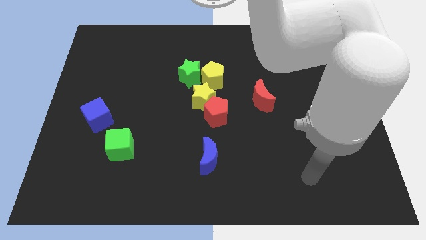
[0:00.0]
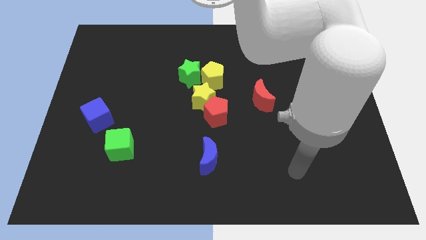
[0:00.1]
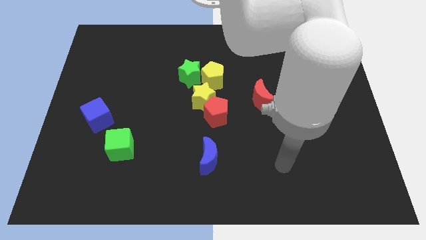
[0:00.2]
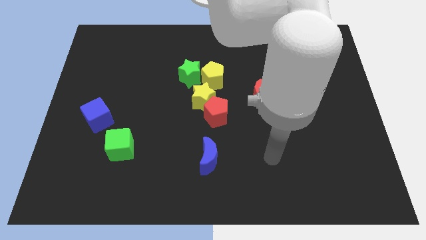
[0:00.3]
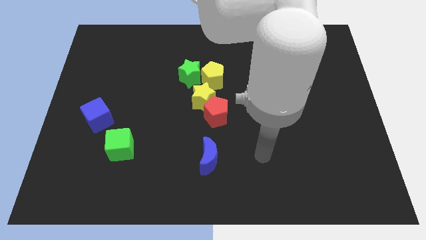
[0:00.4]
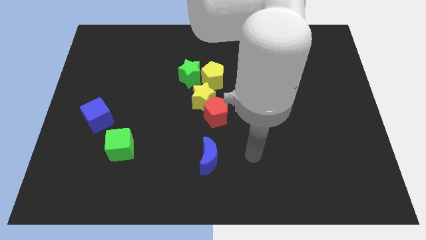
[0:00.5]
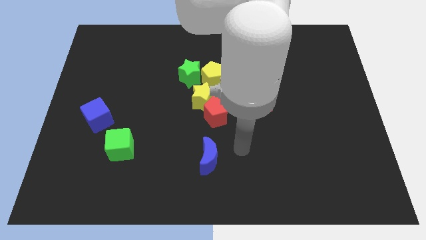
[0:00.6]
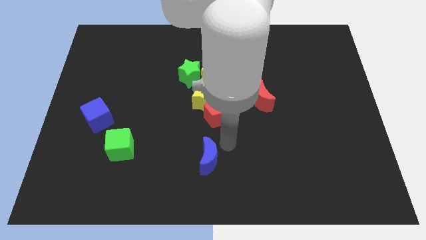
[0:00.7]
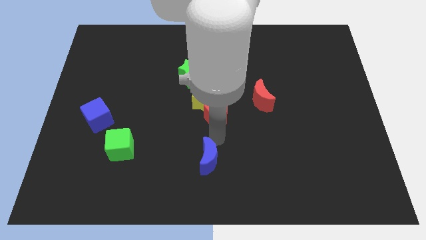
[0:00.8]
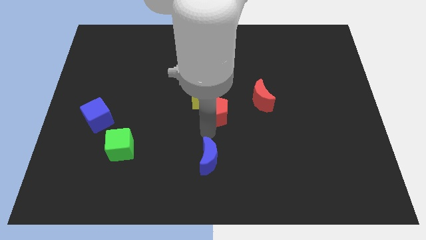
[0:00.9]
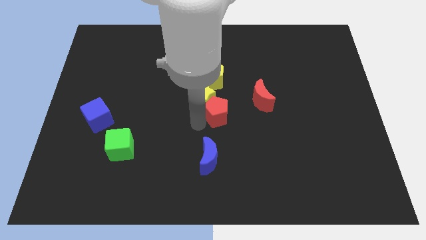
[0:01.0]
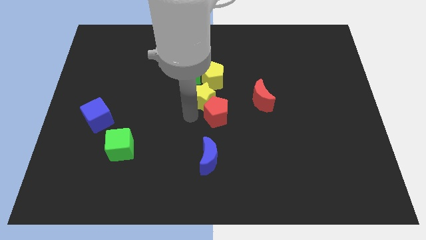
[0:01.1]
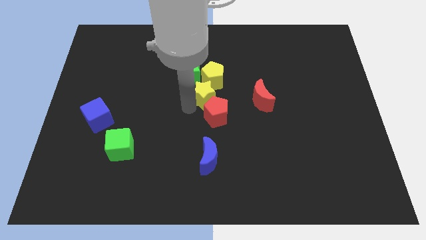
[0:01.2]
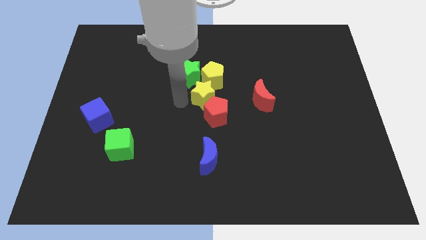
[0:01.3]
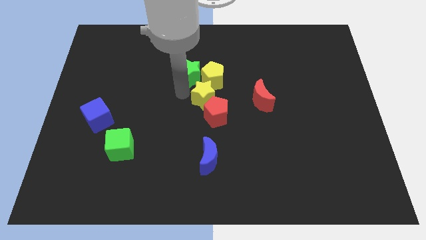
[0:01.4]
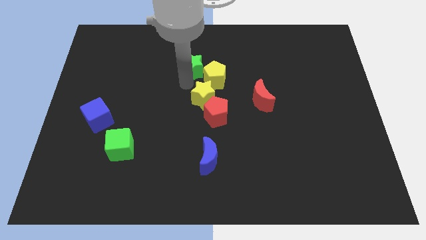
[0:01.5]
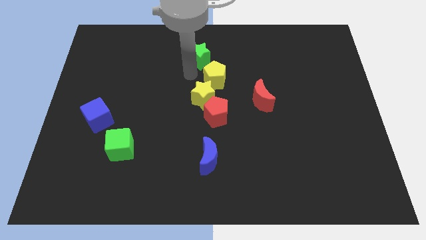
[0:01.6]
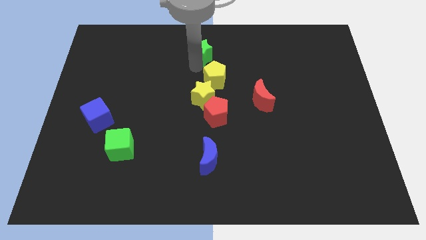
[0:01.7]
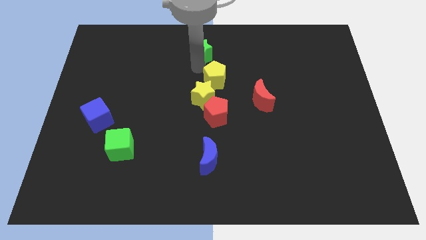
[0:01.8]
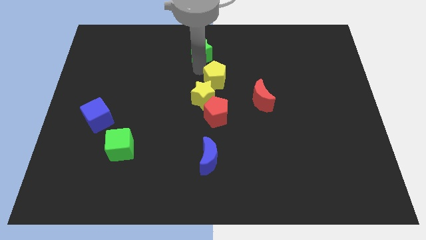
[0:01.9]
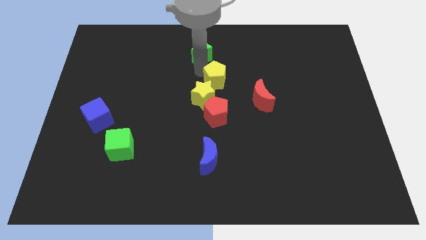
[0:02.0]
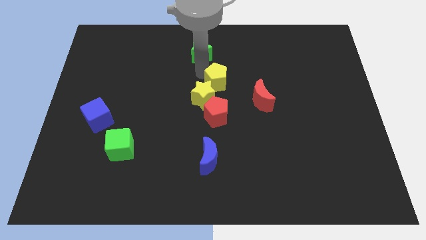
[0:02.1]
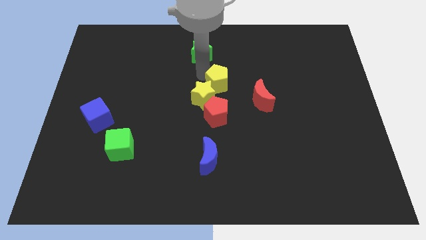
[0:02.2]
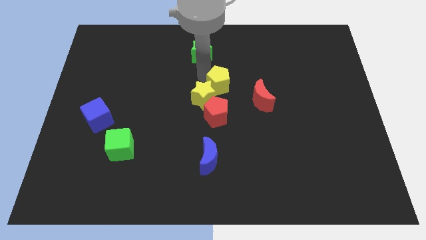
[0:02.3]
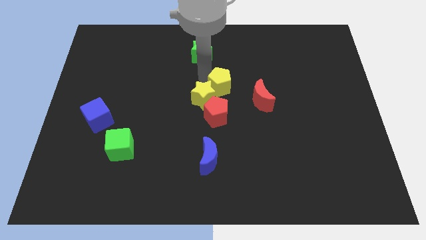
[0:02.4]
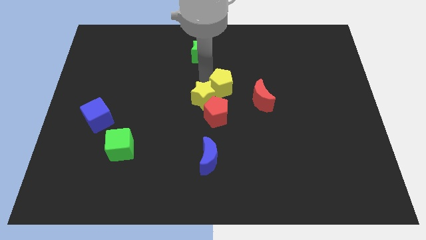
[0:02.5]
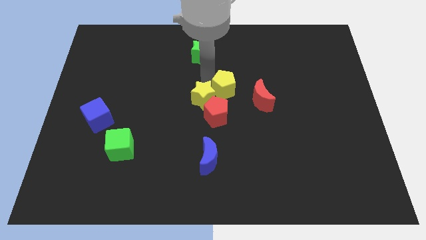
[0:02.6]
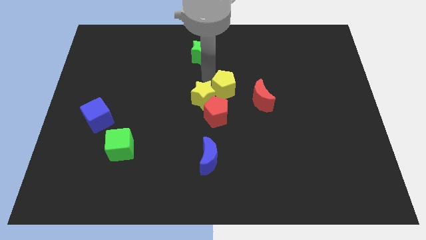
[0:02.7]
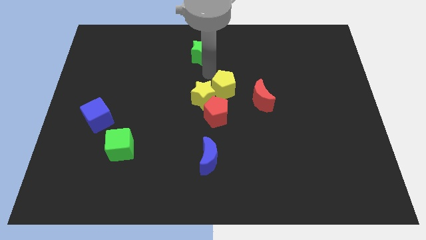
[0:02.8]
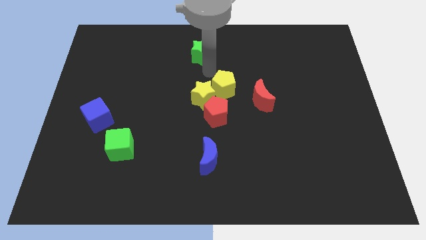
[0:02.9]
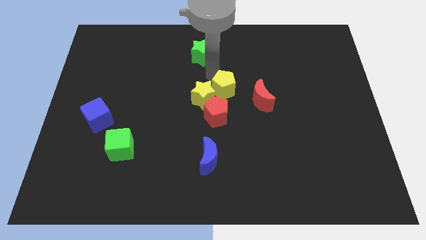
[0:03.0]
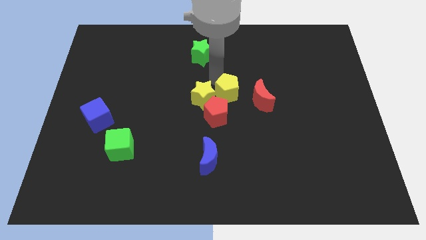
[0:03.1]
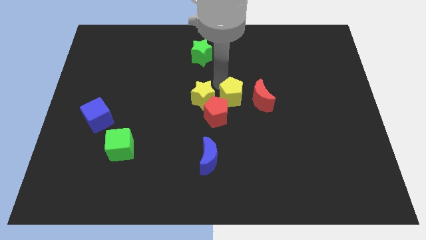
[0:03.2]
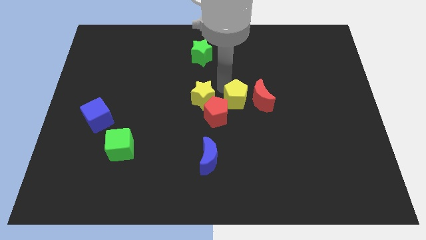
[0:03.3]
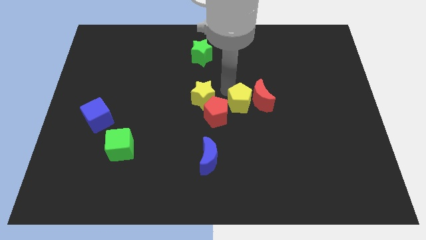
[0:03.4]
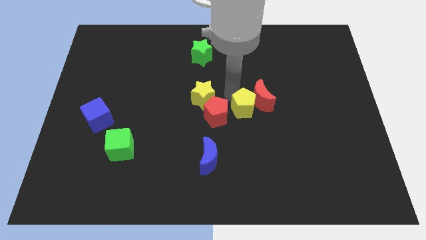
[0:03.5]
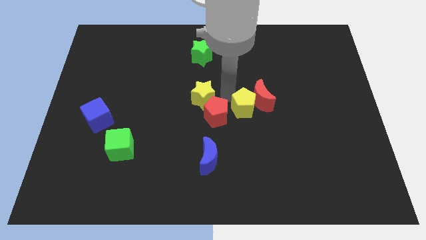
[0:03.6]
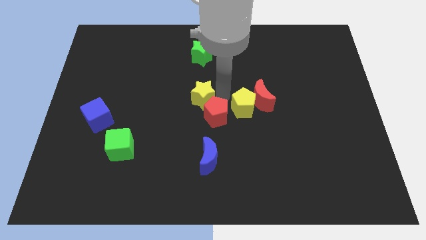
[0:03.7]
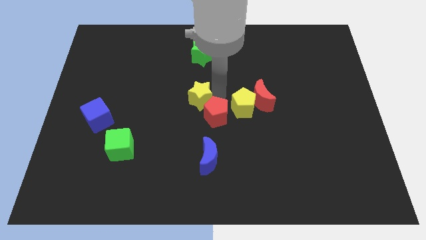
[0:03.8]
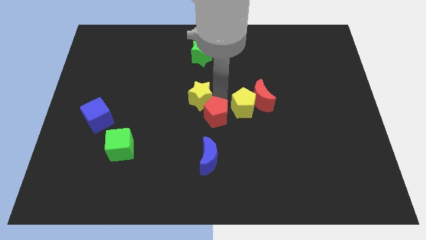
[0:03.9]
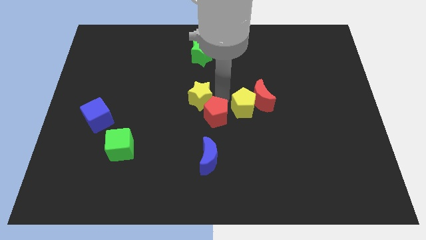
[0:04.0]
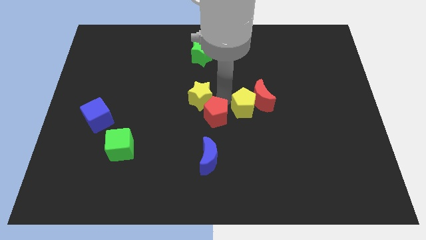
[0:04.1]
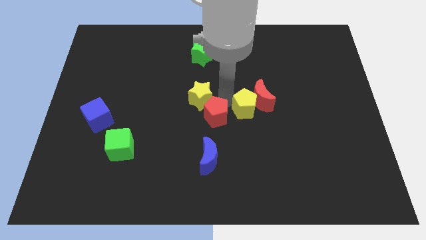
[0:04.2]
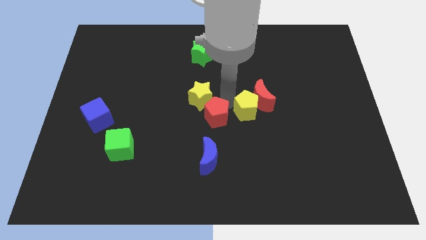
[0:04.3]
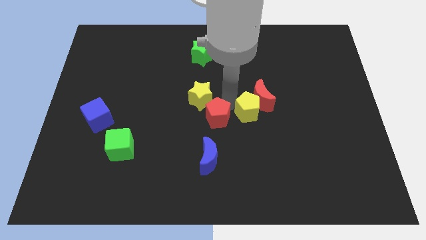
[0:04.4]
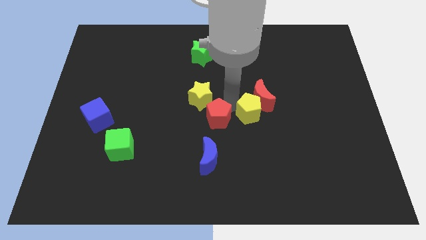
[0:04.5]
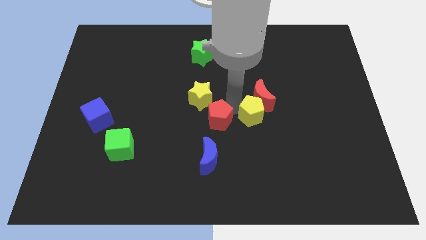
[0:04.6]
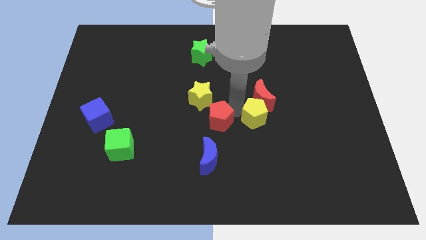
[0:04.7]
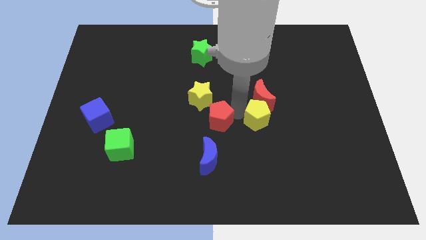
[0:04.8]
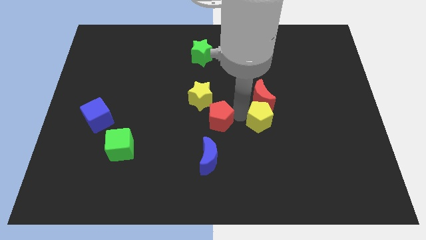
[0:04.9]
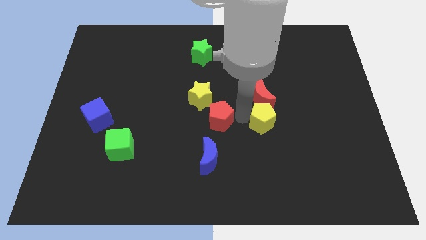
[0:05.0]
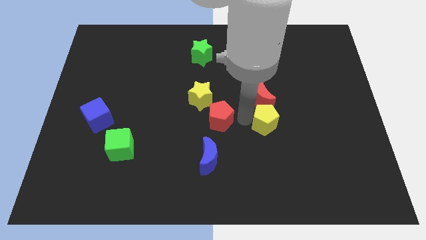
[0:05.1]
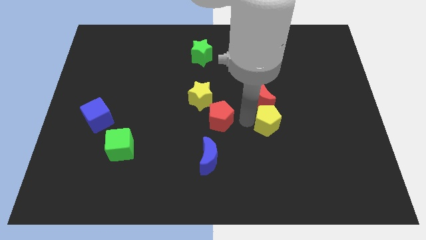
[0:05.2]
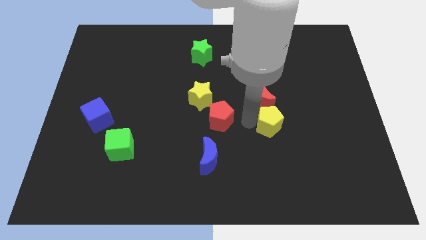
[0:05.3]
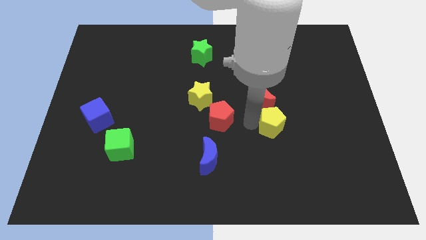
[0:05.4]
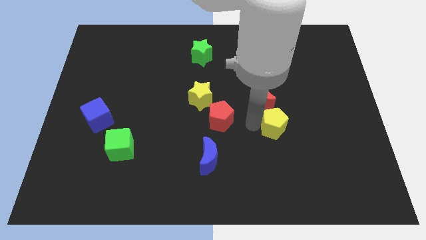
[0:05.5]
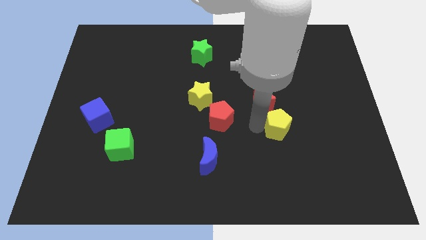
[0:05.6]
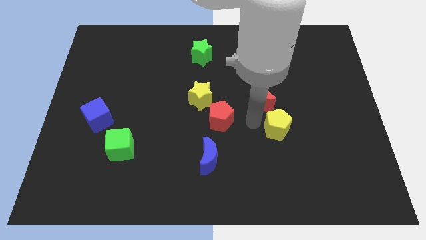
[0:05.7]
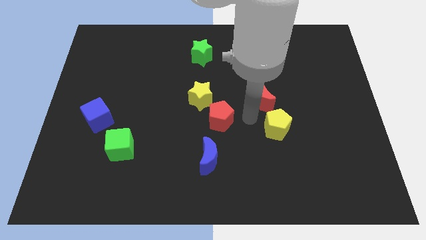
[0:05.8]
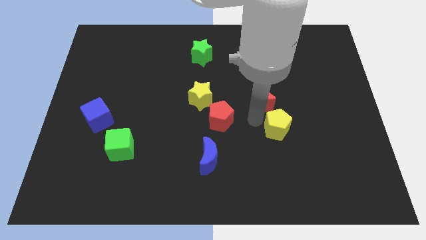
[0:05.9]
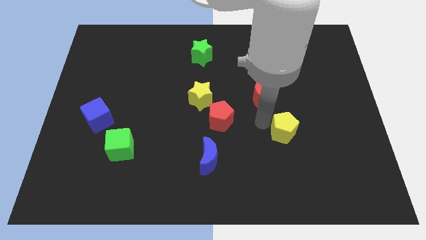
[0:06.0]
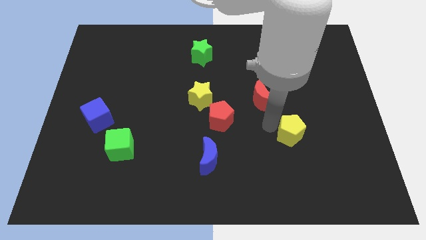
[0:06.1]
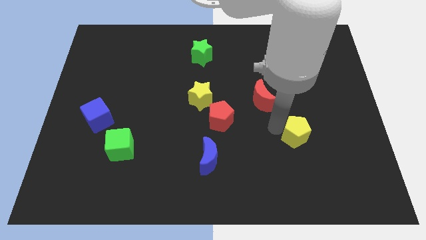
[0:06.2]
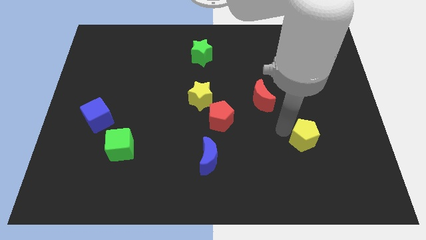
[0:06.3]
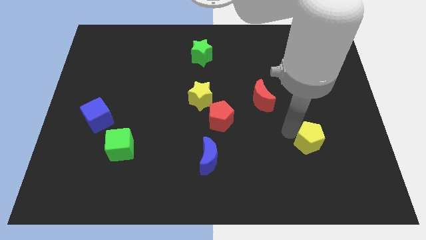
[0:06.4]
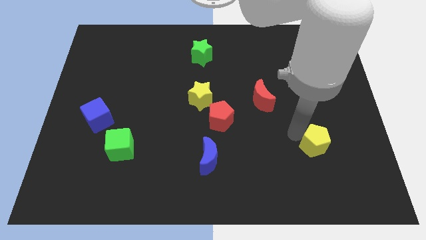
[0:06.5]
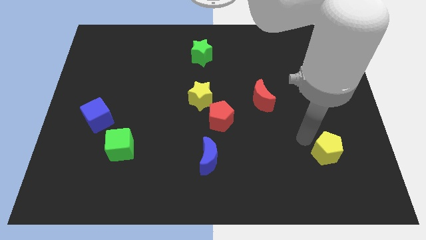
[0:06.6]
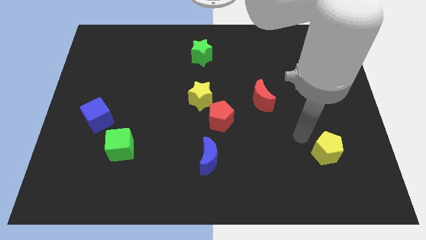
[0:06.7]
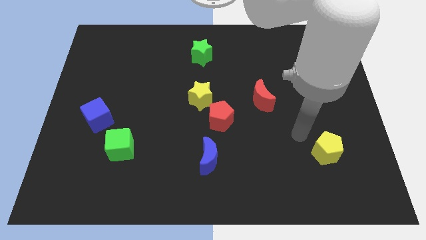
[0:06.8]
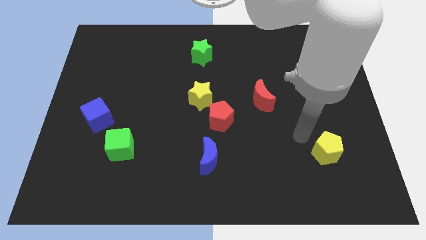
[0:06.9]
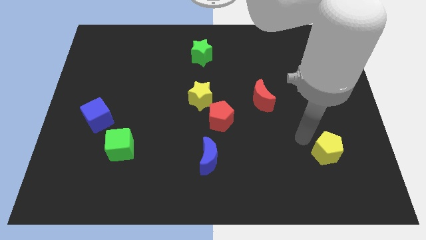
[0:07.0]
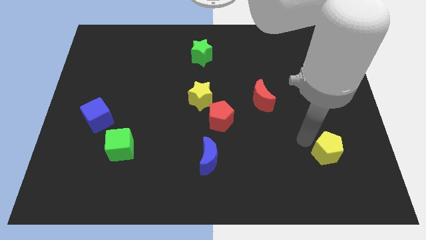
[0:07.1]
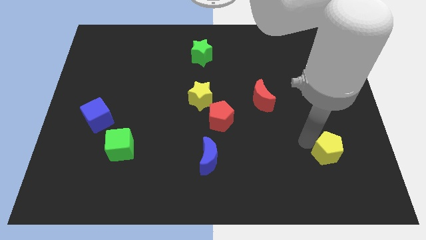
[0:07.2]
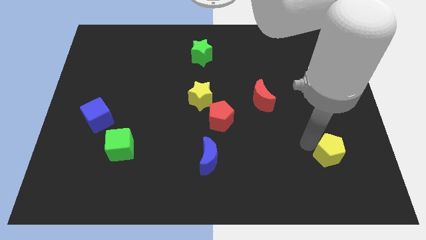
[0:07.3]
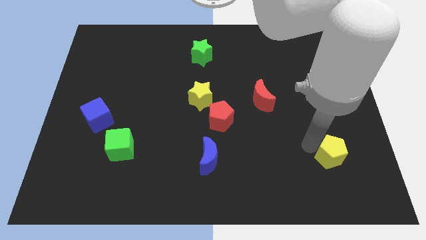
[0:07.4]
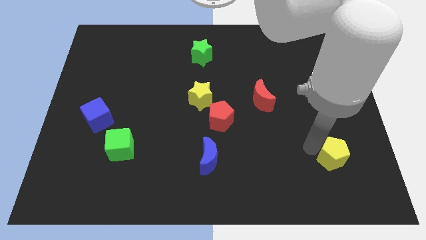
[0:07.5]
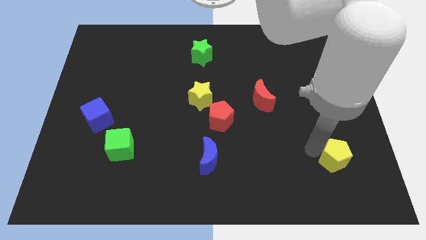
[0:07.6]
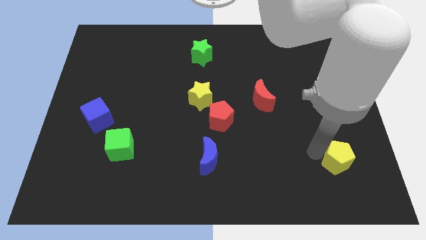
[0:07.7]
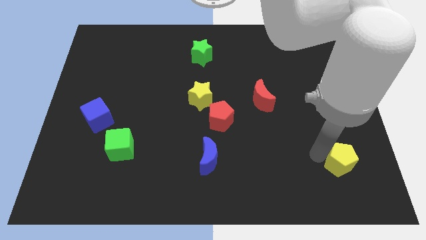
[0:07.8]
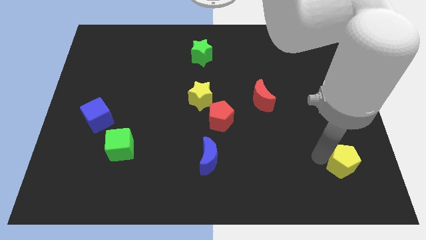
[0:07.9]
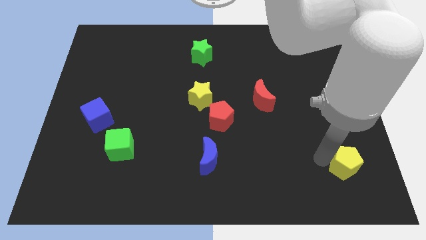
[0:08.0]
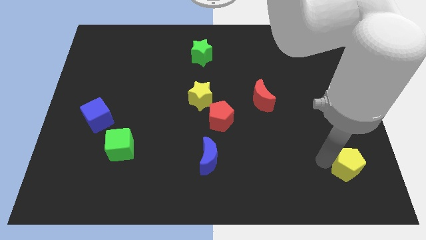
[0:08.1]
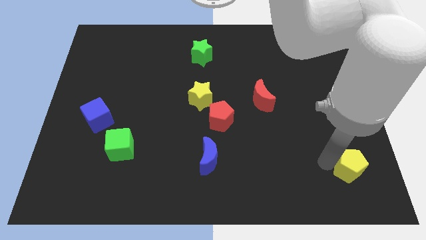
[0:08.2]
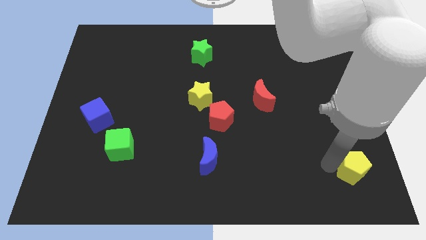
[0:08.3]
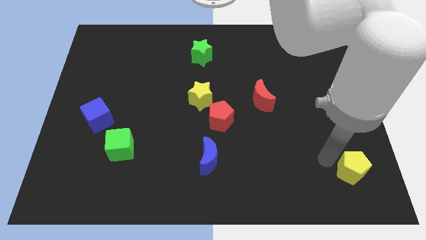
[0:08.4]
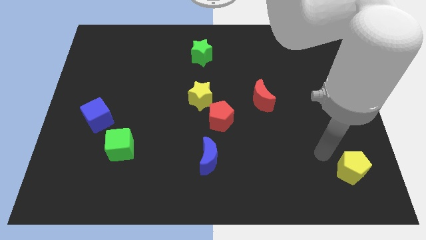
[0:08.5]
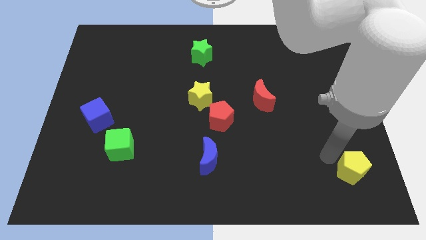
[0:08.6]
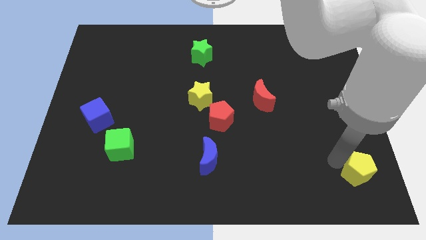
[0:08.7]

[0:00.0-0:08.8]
slide the yellow pentagon to the bottom right of the board
